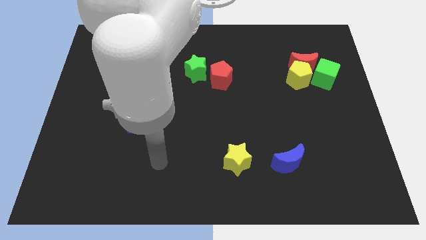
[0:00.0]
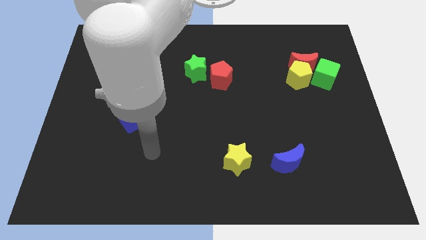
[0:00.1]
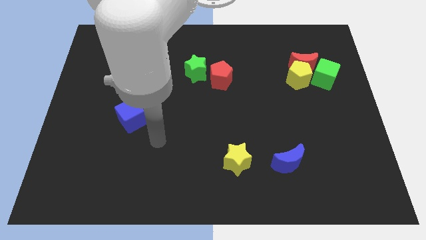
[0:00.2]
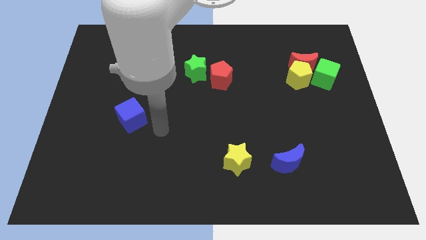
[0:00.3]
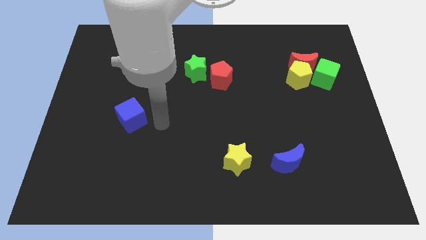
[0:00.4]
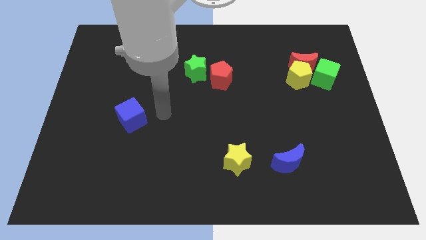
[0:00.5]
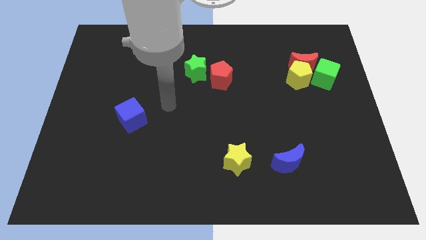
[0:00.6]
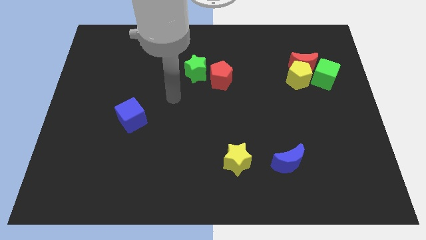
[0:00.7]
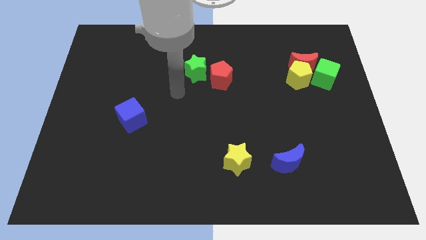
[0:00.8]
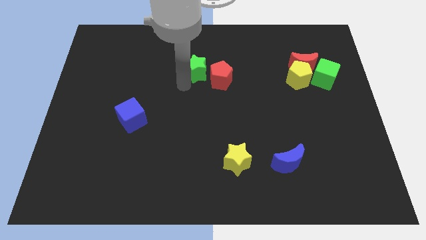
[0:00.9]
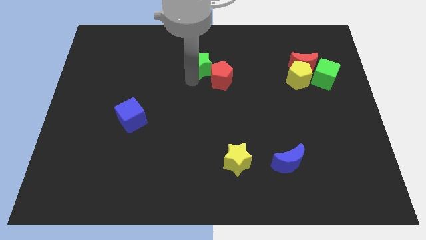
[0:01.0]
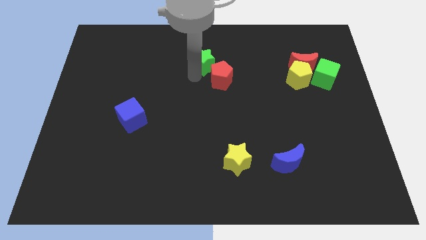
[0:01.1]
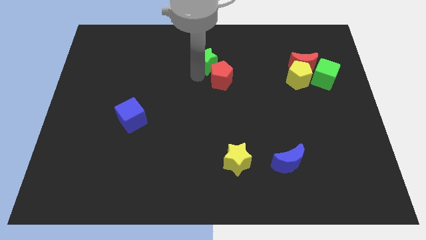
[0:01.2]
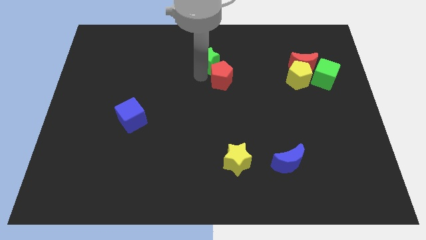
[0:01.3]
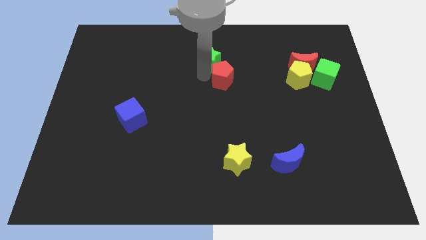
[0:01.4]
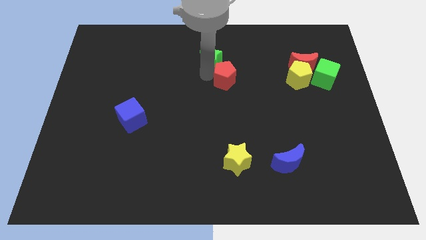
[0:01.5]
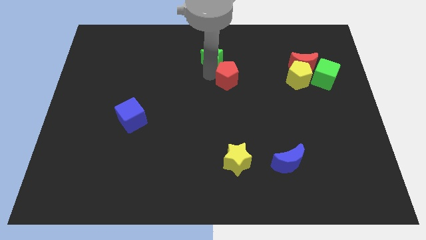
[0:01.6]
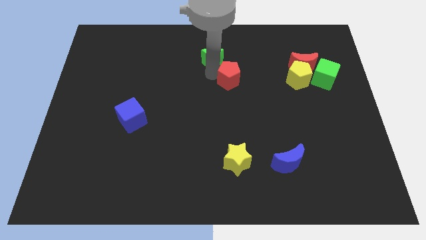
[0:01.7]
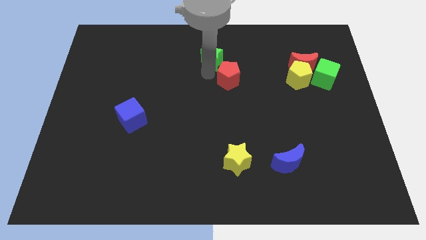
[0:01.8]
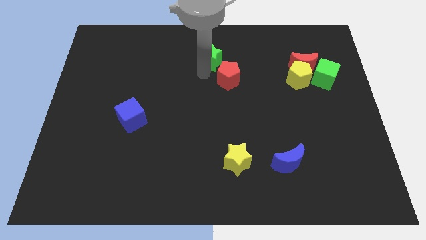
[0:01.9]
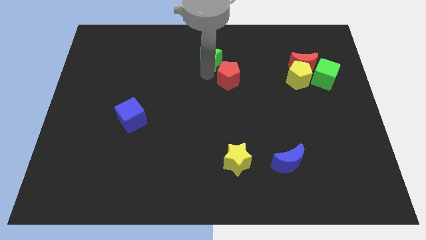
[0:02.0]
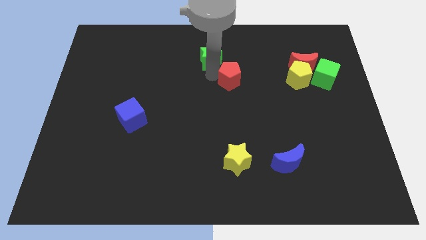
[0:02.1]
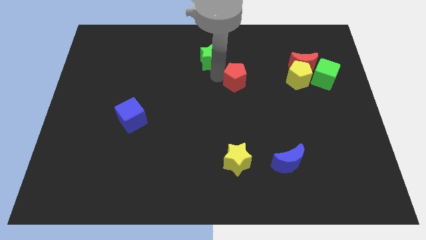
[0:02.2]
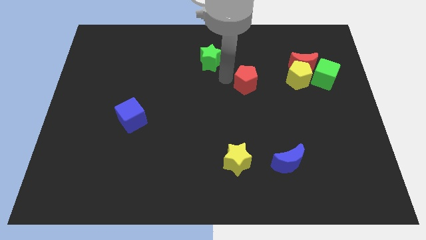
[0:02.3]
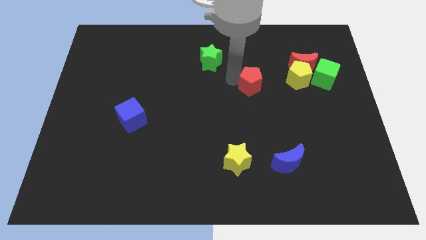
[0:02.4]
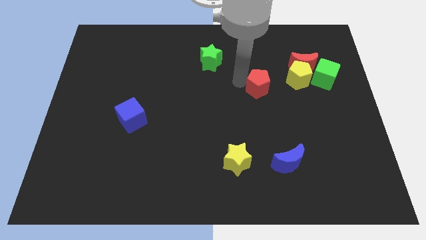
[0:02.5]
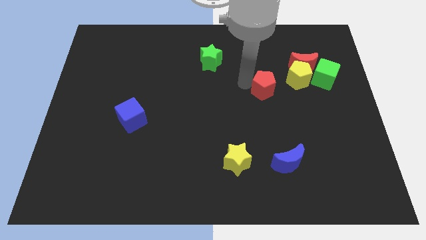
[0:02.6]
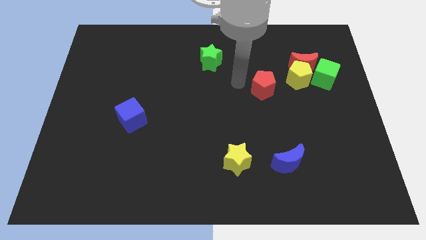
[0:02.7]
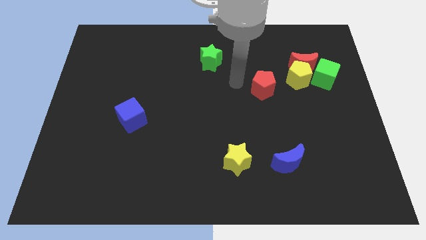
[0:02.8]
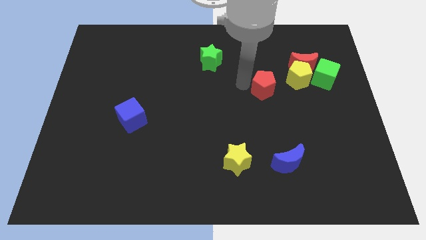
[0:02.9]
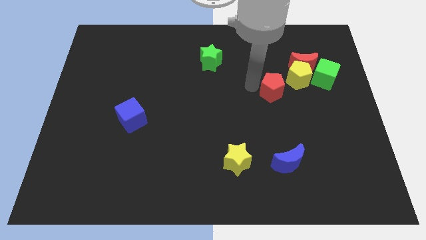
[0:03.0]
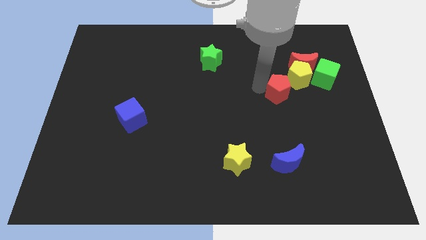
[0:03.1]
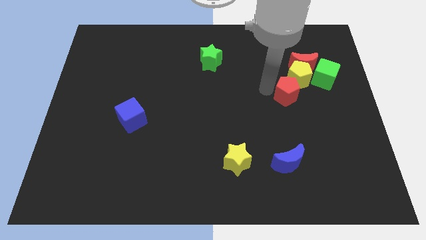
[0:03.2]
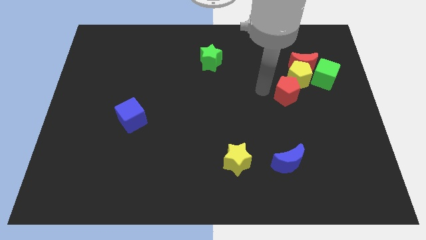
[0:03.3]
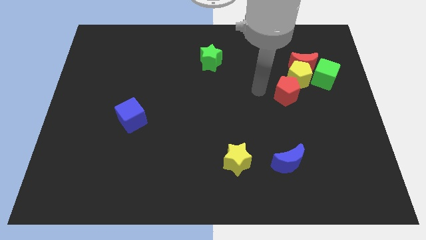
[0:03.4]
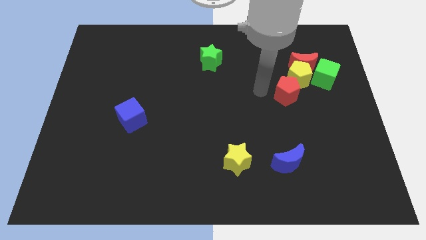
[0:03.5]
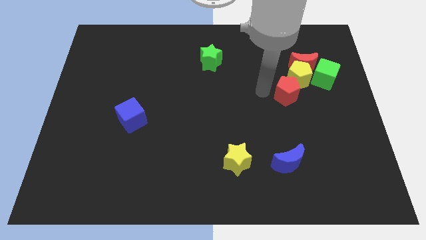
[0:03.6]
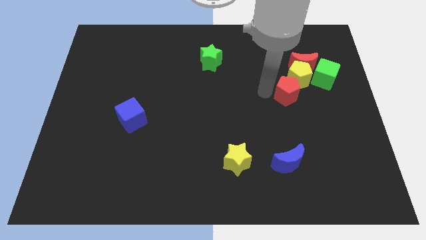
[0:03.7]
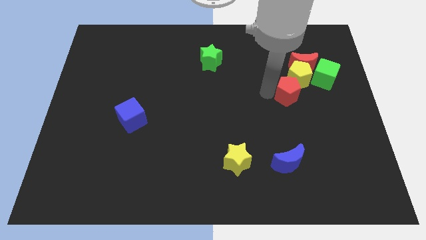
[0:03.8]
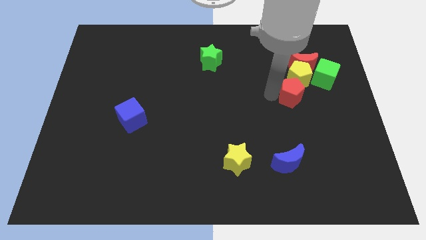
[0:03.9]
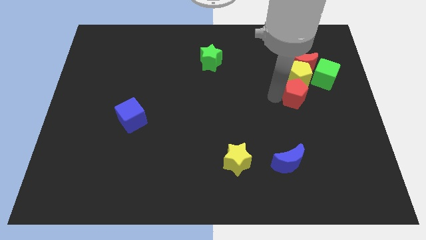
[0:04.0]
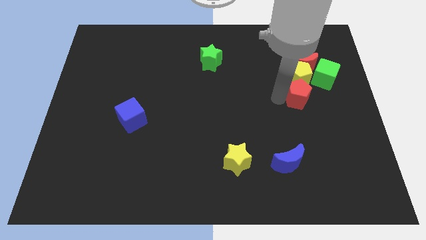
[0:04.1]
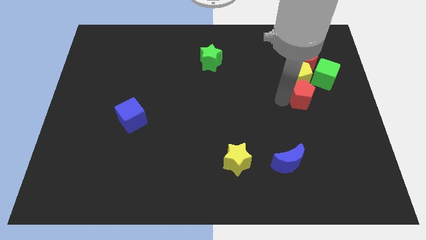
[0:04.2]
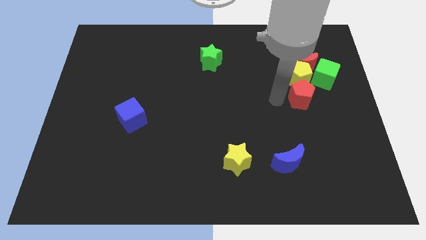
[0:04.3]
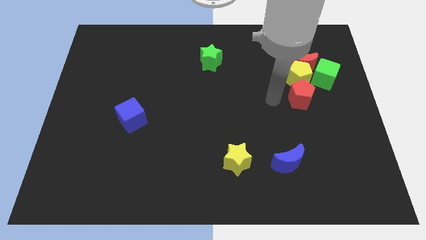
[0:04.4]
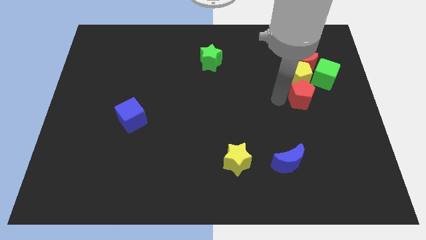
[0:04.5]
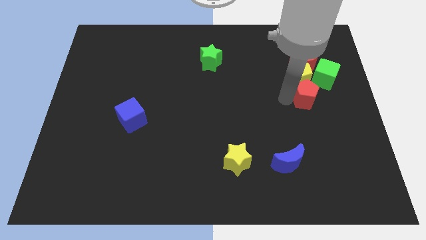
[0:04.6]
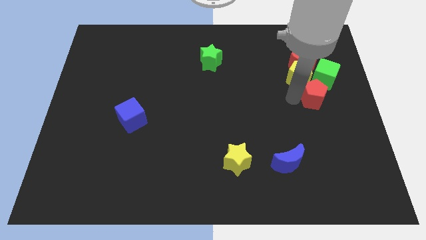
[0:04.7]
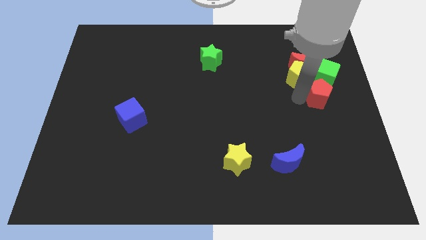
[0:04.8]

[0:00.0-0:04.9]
move the red pentagon to the right side

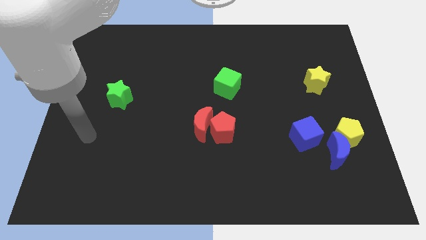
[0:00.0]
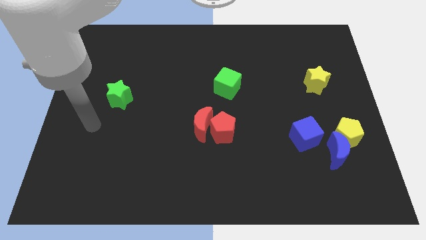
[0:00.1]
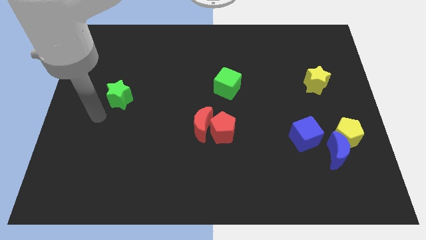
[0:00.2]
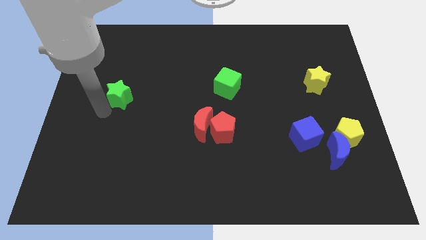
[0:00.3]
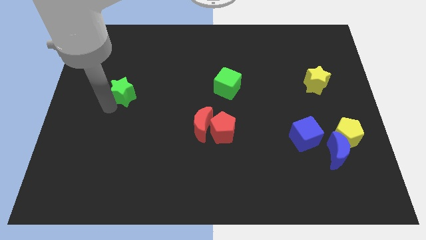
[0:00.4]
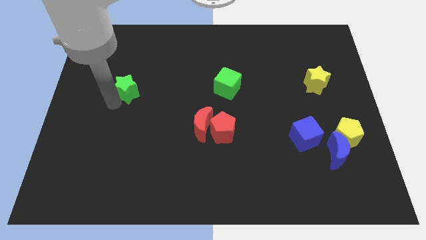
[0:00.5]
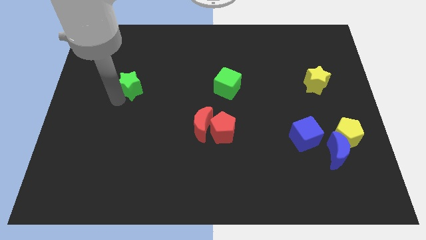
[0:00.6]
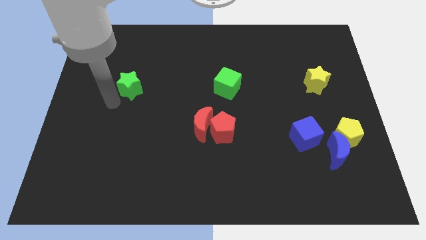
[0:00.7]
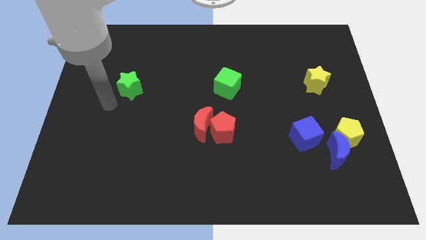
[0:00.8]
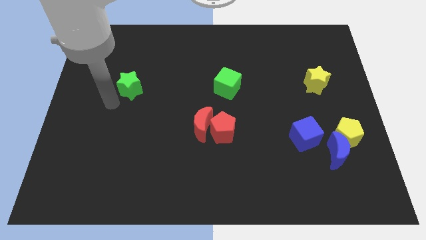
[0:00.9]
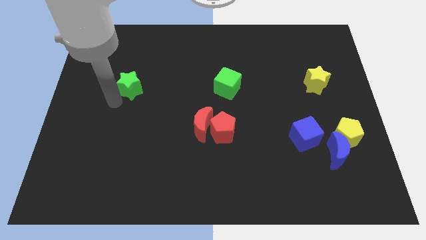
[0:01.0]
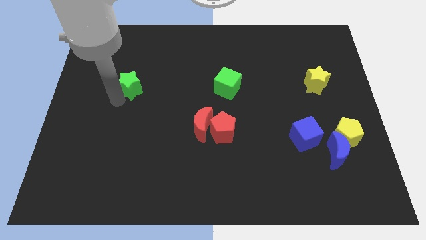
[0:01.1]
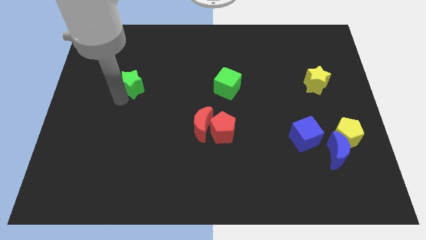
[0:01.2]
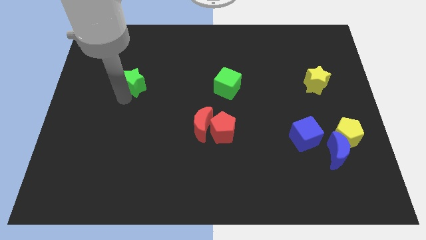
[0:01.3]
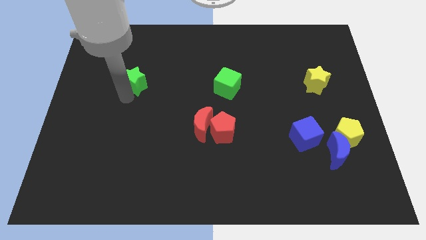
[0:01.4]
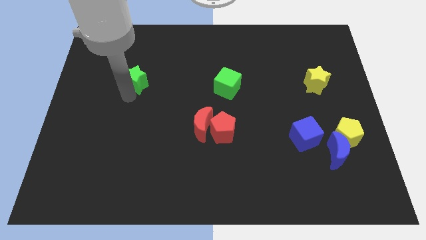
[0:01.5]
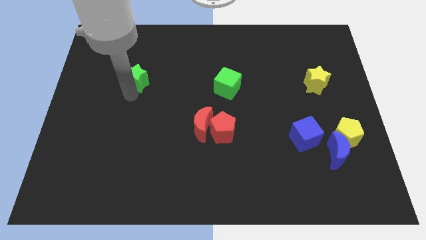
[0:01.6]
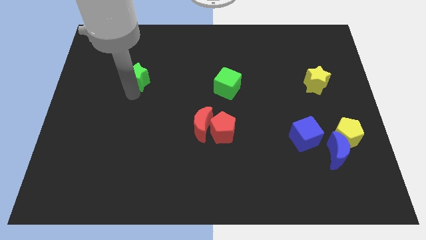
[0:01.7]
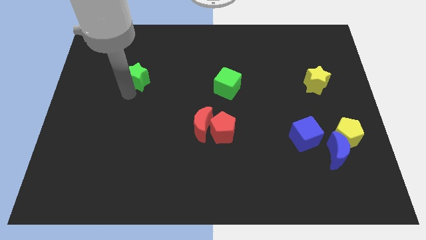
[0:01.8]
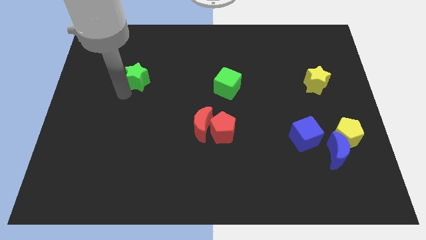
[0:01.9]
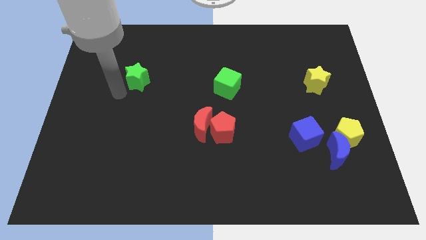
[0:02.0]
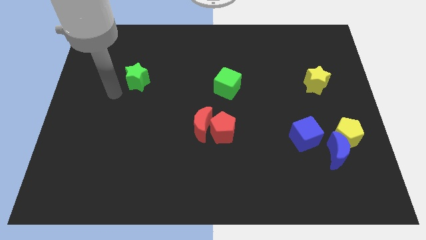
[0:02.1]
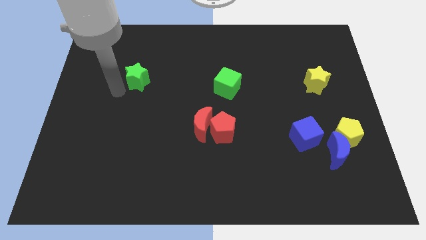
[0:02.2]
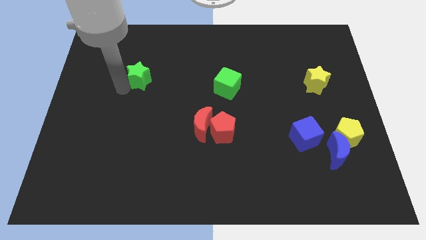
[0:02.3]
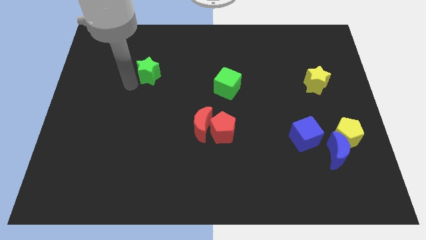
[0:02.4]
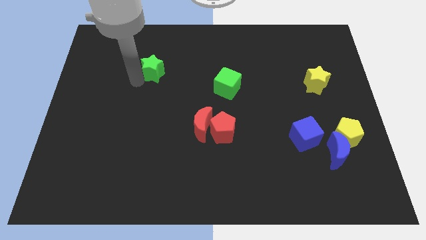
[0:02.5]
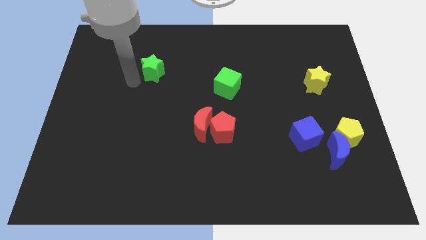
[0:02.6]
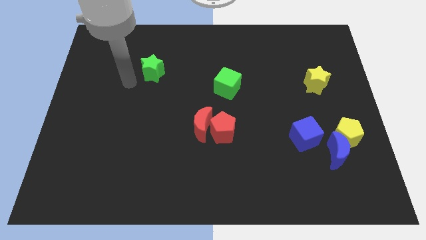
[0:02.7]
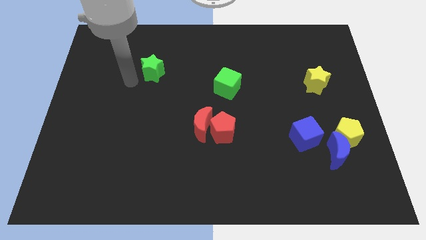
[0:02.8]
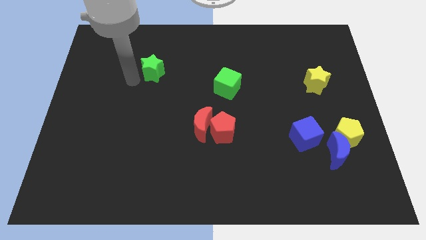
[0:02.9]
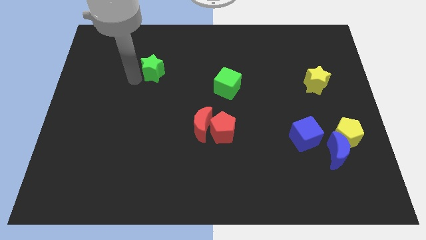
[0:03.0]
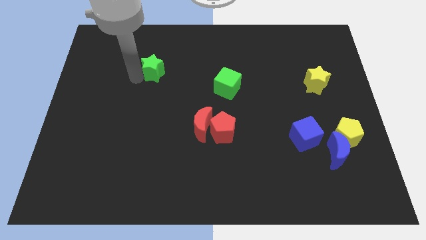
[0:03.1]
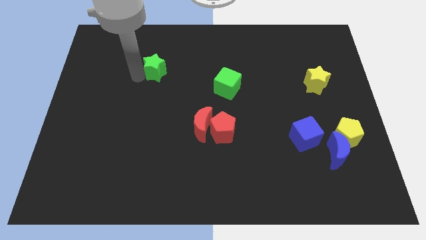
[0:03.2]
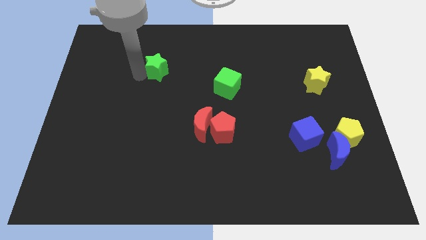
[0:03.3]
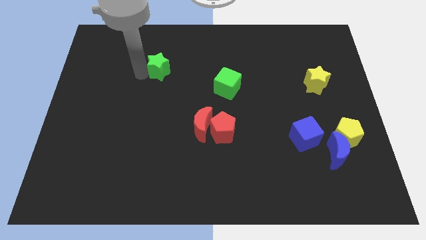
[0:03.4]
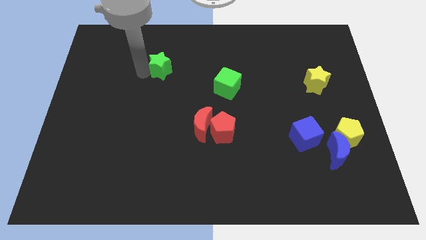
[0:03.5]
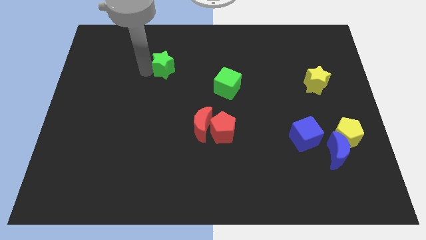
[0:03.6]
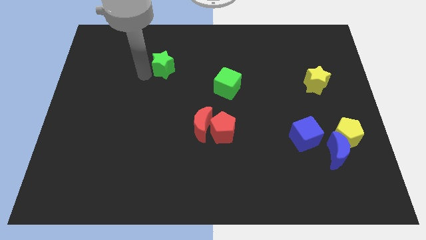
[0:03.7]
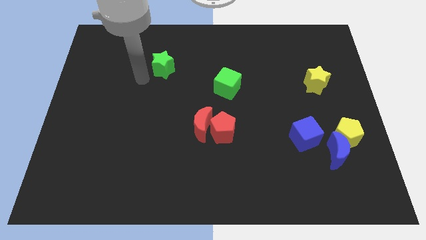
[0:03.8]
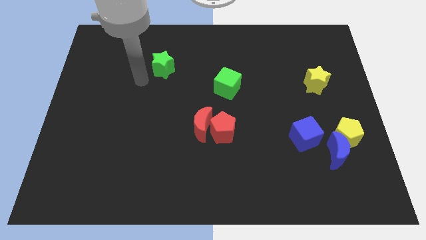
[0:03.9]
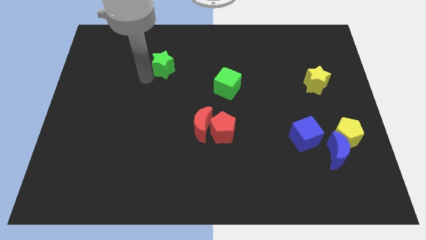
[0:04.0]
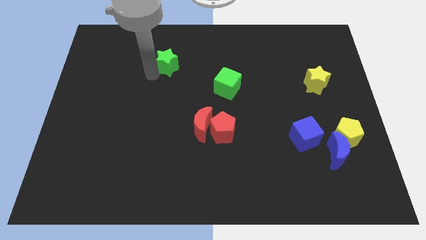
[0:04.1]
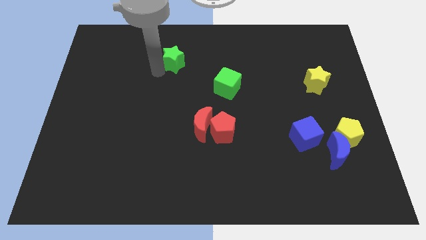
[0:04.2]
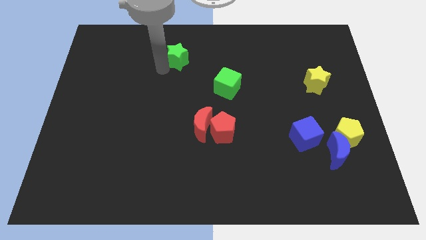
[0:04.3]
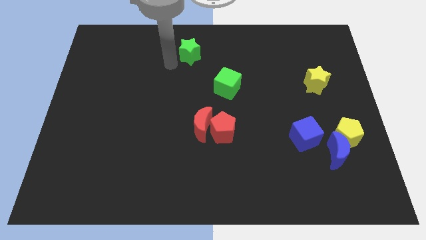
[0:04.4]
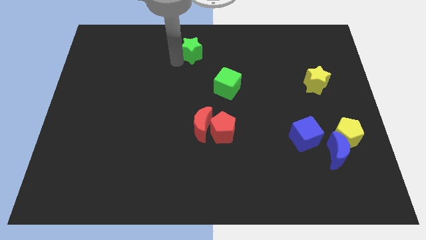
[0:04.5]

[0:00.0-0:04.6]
move the green star to the top side
